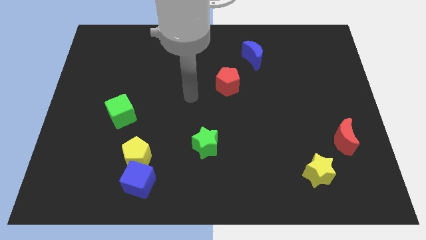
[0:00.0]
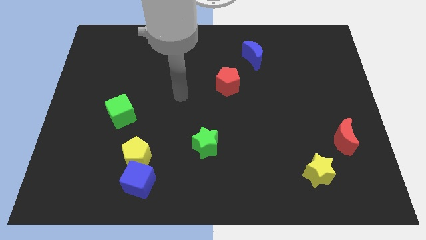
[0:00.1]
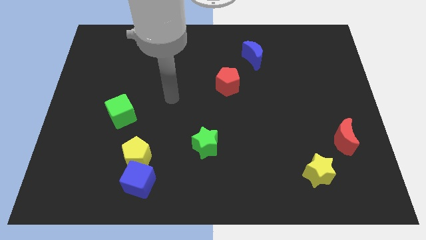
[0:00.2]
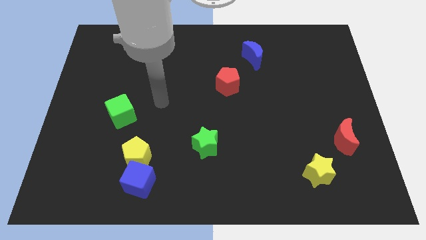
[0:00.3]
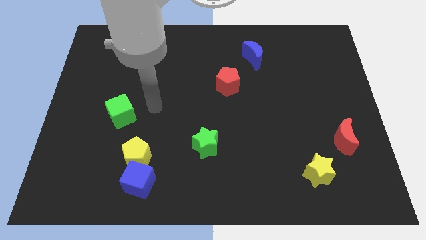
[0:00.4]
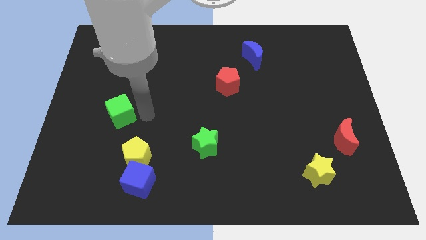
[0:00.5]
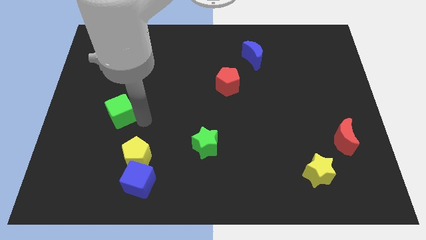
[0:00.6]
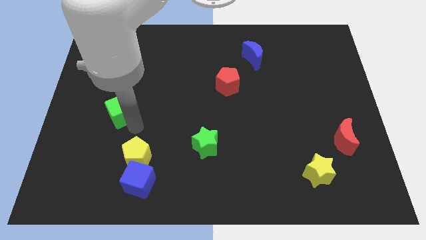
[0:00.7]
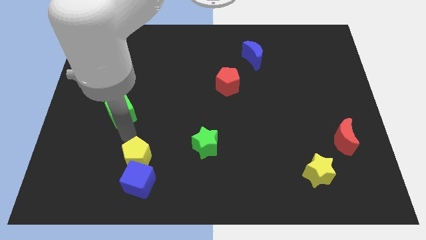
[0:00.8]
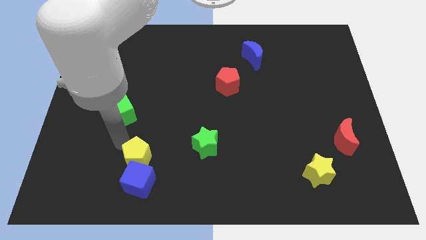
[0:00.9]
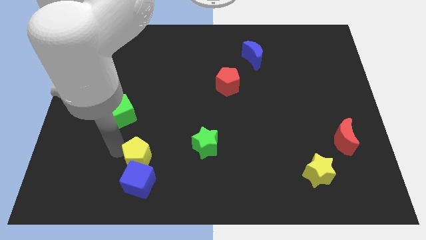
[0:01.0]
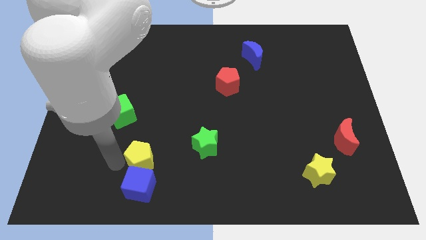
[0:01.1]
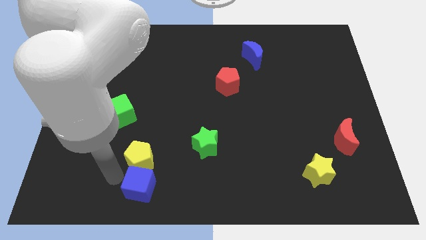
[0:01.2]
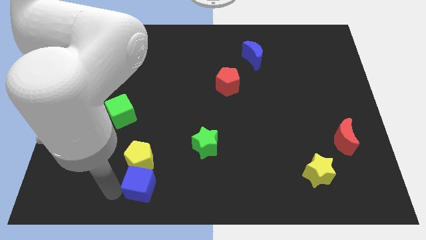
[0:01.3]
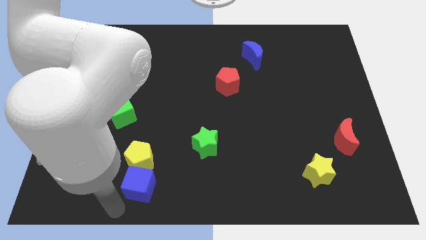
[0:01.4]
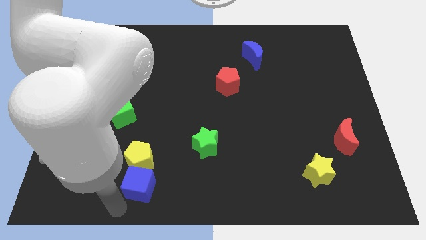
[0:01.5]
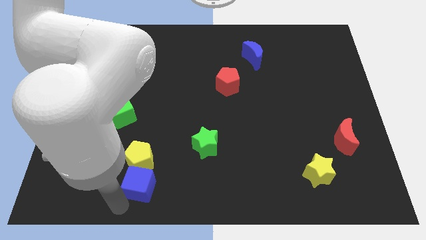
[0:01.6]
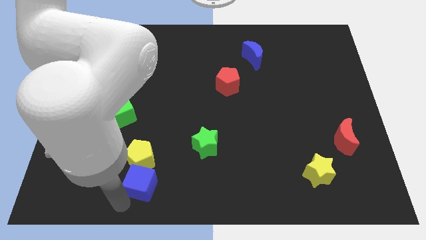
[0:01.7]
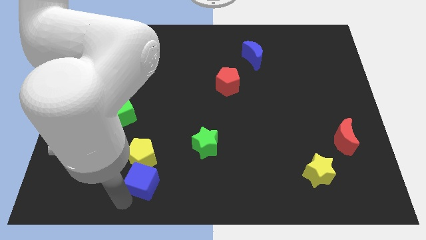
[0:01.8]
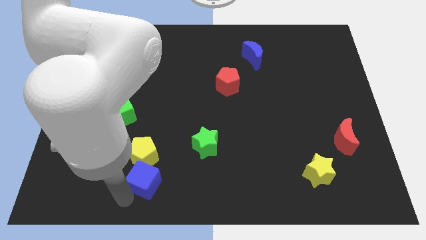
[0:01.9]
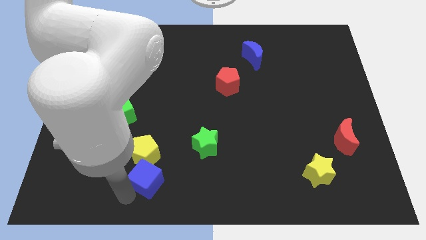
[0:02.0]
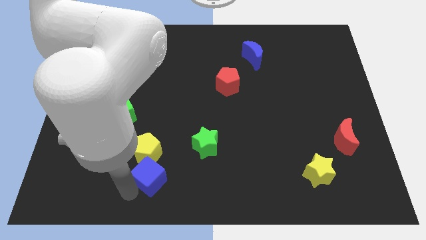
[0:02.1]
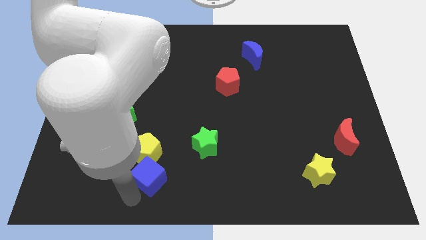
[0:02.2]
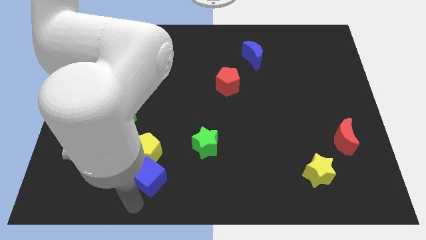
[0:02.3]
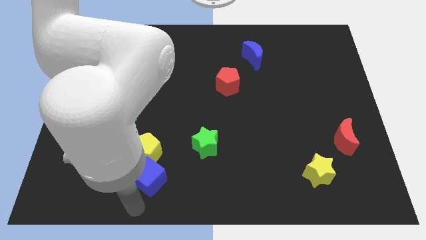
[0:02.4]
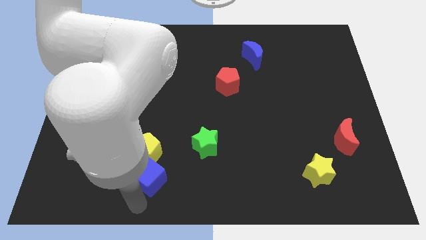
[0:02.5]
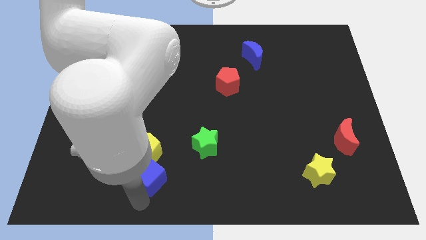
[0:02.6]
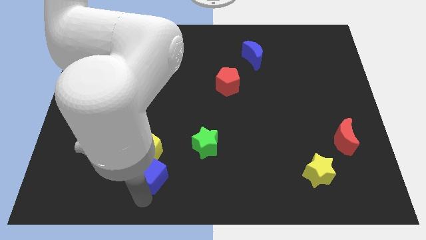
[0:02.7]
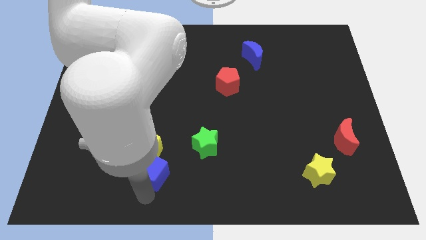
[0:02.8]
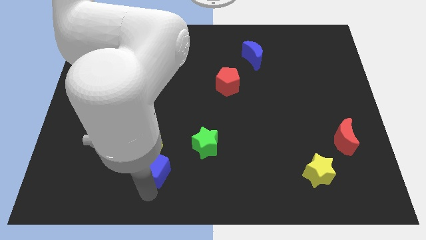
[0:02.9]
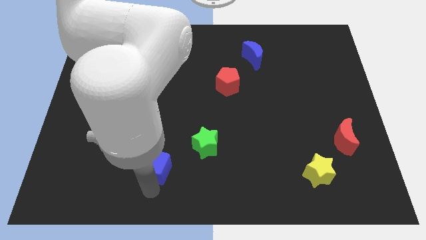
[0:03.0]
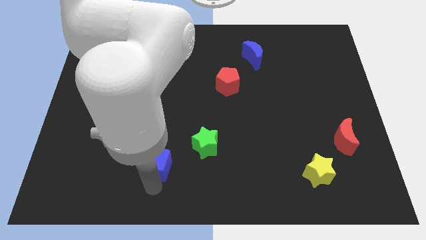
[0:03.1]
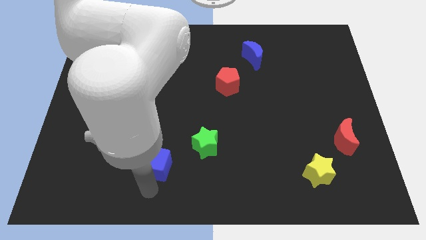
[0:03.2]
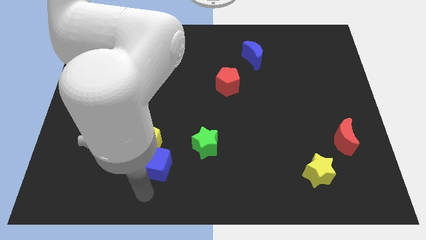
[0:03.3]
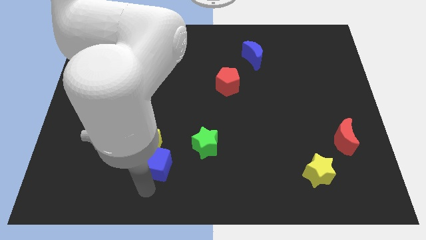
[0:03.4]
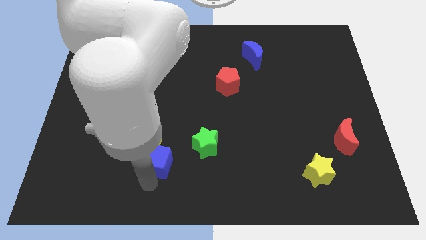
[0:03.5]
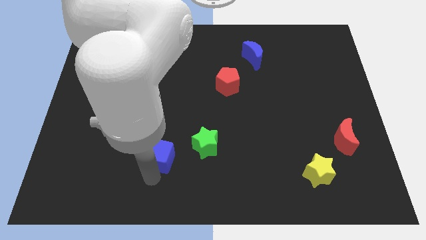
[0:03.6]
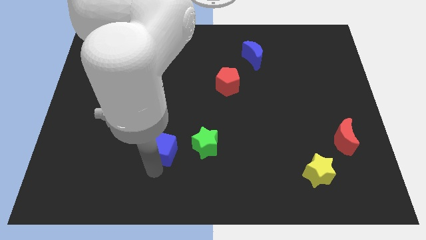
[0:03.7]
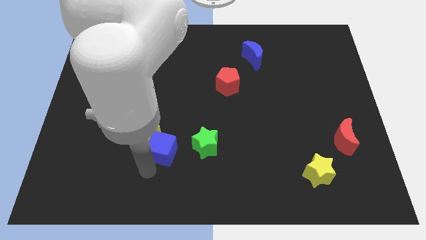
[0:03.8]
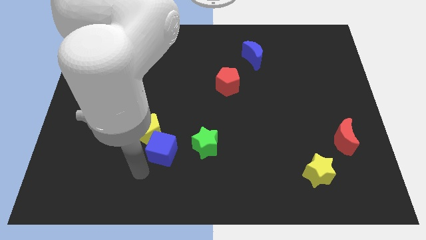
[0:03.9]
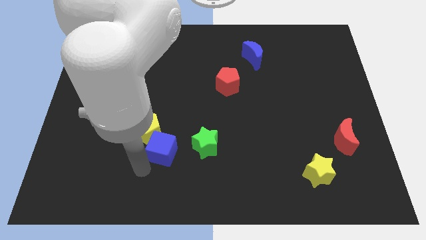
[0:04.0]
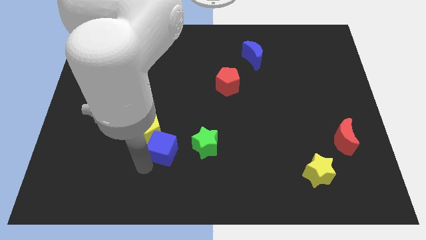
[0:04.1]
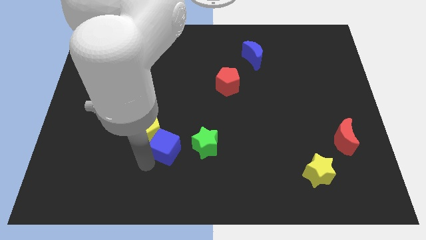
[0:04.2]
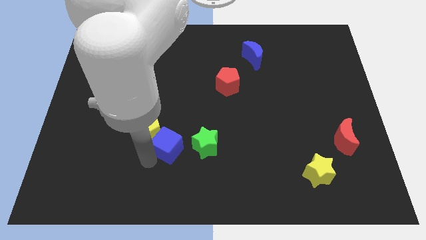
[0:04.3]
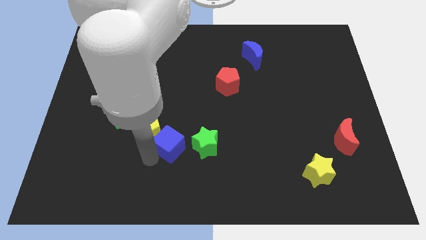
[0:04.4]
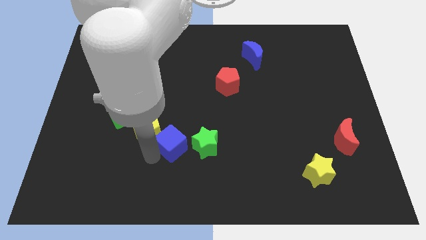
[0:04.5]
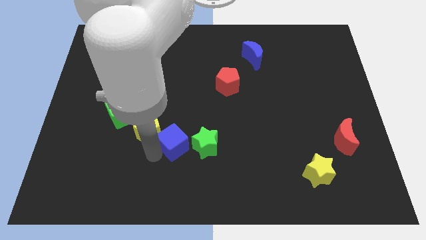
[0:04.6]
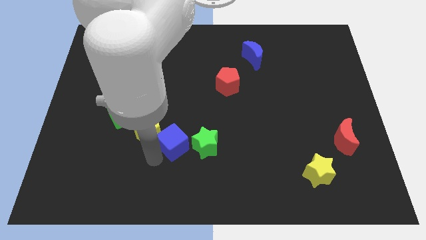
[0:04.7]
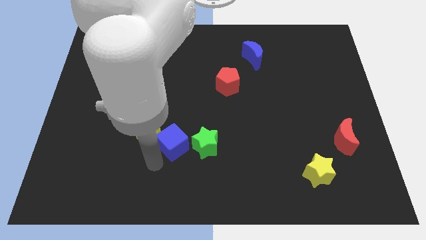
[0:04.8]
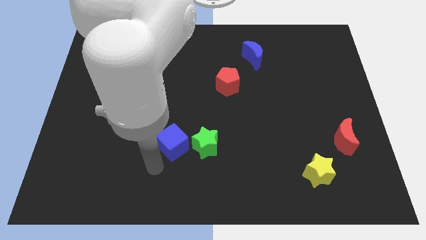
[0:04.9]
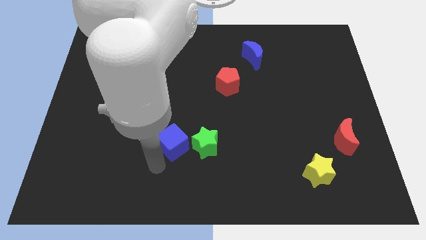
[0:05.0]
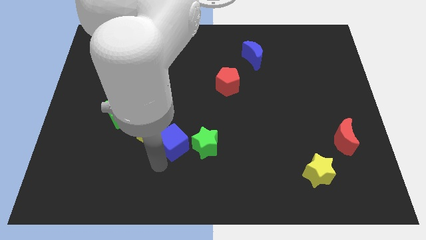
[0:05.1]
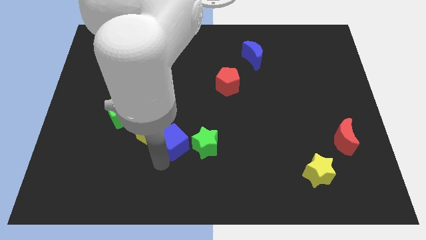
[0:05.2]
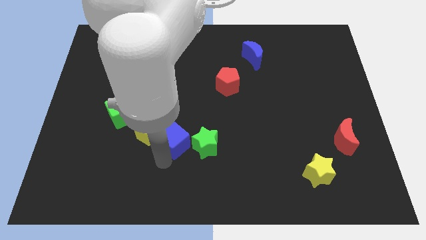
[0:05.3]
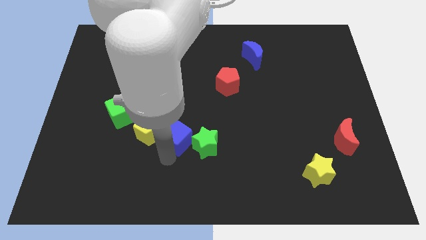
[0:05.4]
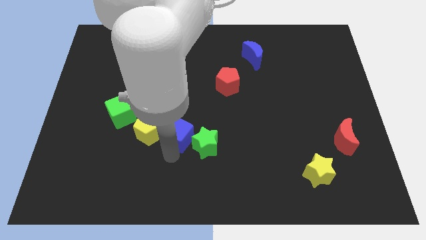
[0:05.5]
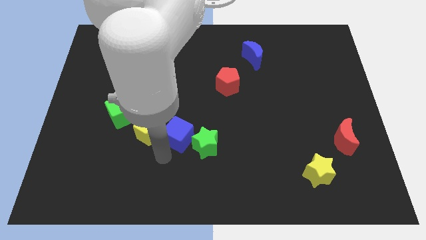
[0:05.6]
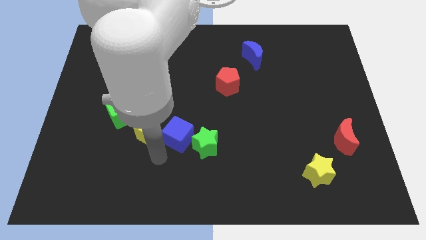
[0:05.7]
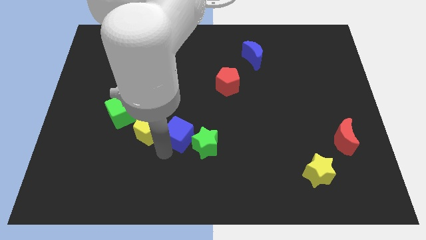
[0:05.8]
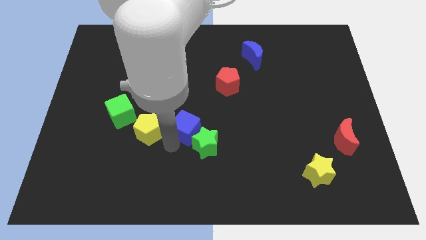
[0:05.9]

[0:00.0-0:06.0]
put the blue cube to the center of the board

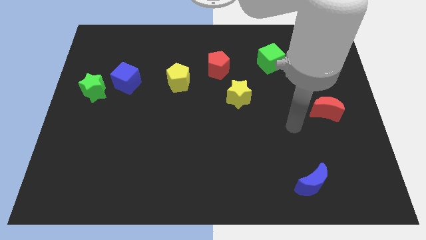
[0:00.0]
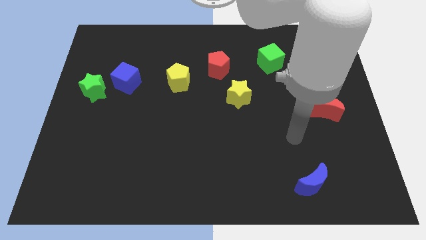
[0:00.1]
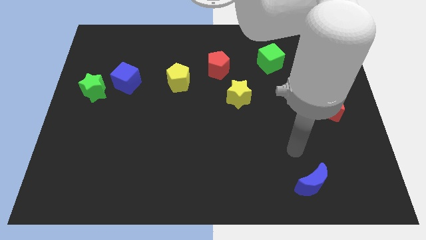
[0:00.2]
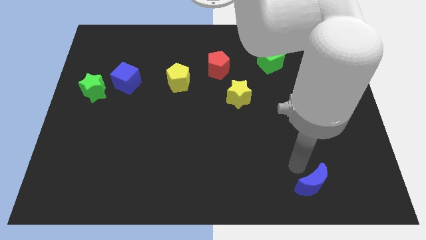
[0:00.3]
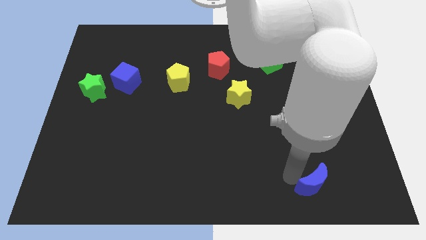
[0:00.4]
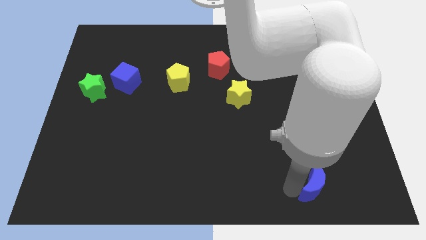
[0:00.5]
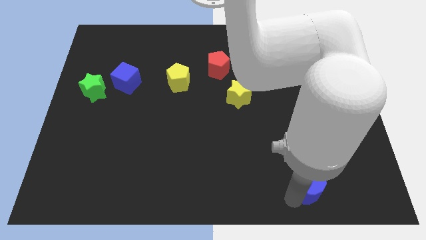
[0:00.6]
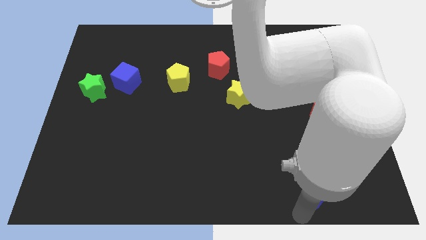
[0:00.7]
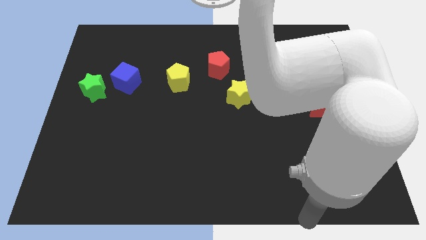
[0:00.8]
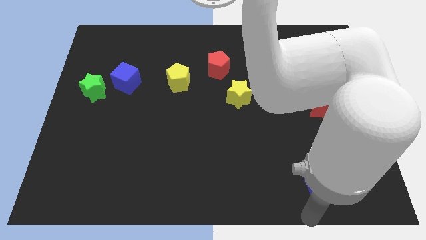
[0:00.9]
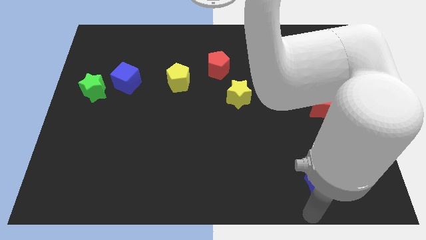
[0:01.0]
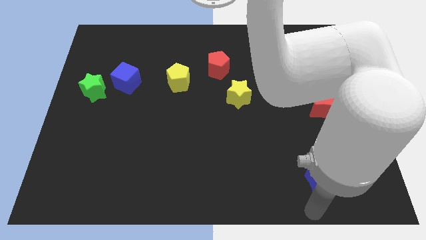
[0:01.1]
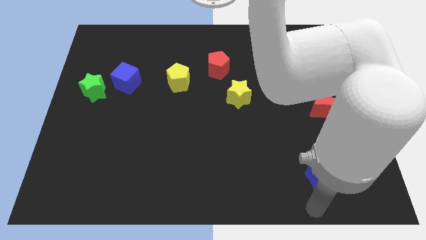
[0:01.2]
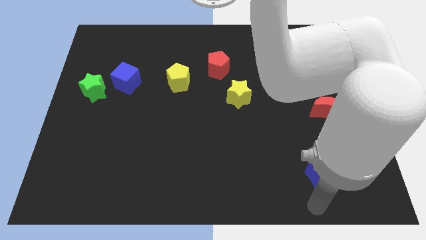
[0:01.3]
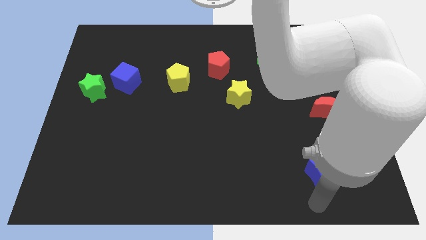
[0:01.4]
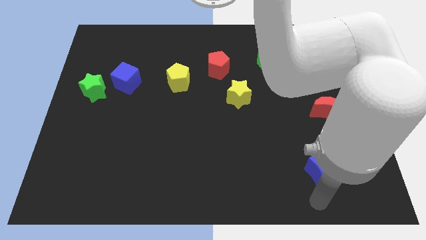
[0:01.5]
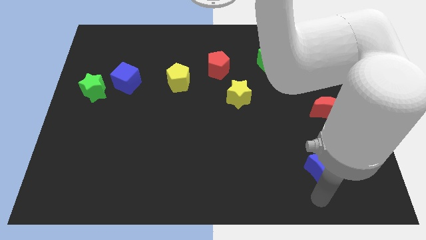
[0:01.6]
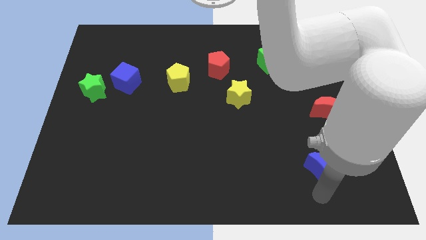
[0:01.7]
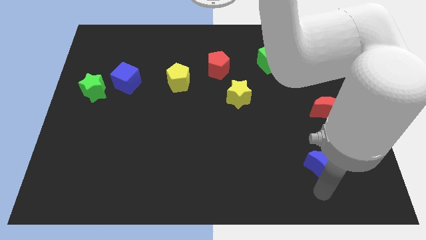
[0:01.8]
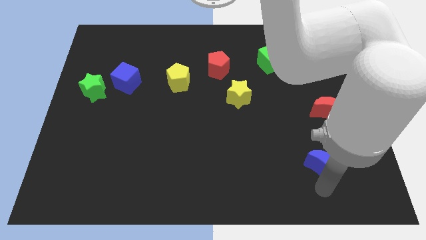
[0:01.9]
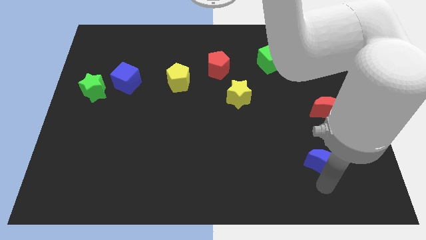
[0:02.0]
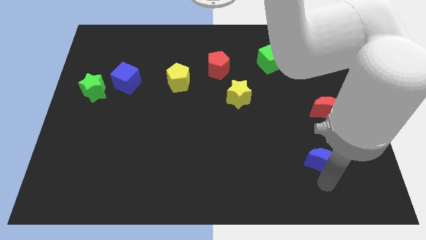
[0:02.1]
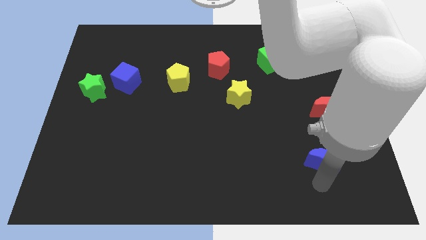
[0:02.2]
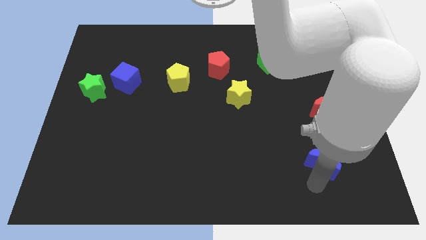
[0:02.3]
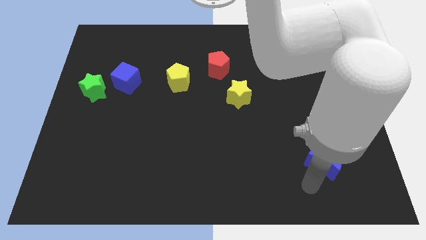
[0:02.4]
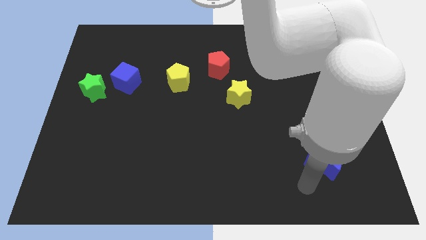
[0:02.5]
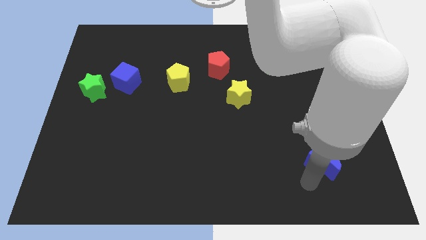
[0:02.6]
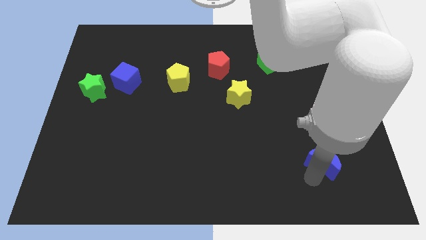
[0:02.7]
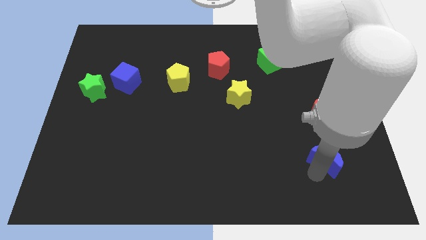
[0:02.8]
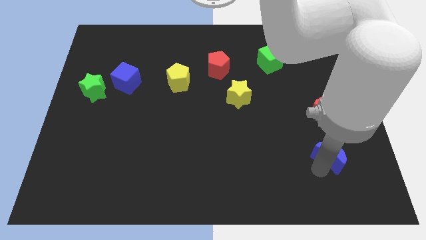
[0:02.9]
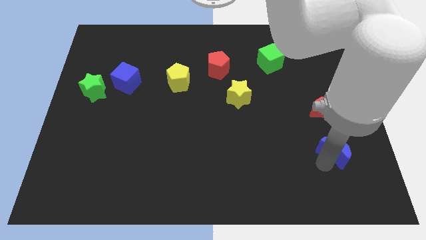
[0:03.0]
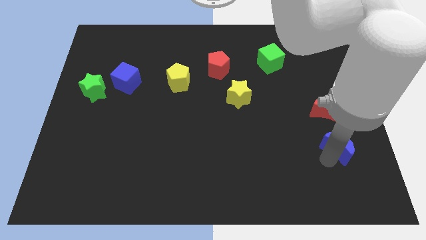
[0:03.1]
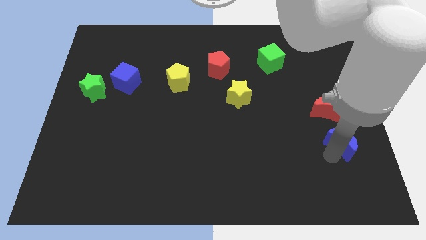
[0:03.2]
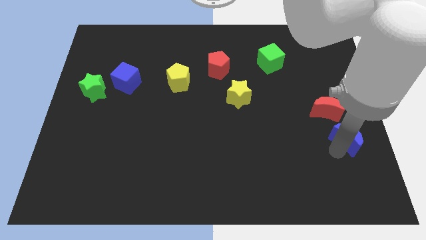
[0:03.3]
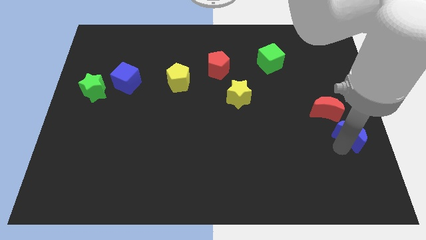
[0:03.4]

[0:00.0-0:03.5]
slide the blue moon to the center right
